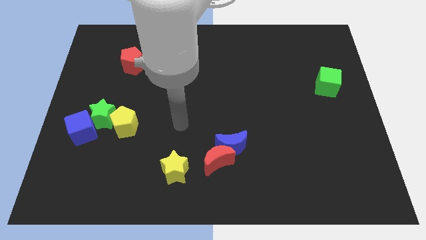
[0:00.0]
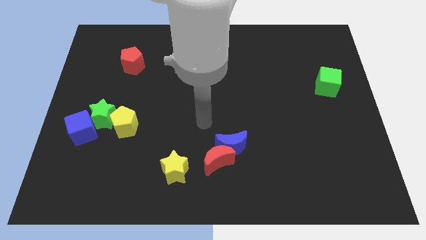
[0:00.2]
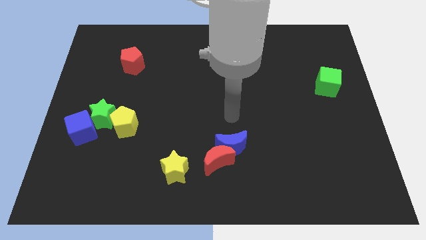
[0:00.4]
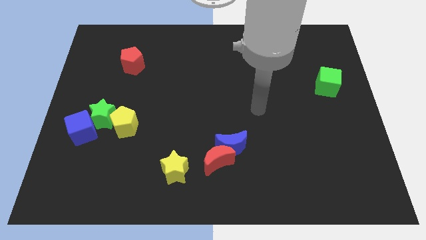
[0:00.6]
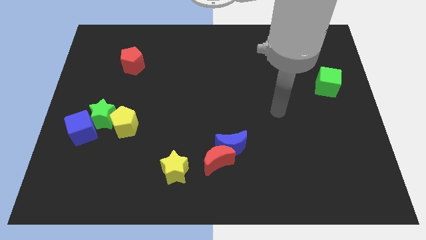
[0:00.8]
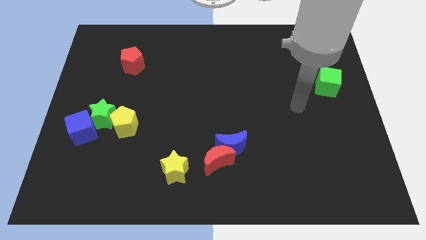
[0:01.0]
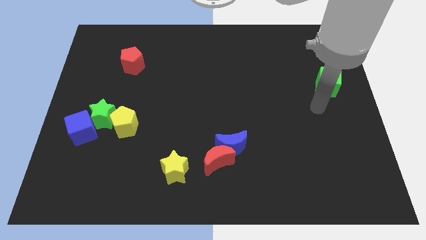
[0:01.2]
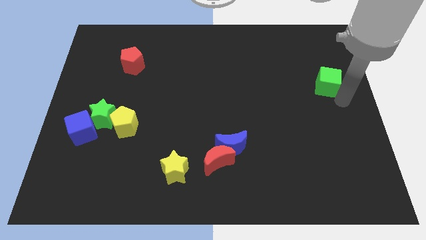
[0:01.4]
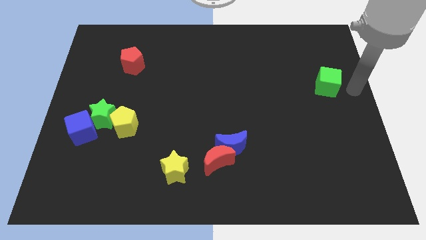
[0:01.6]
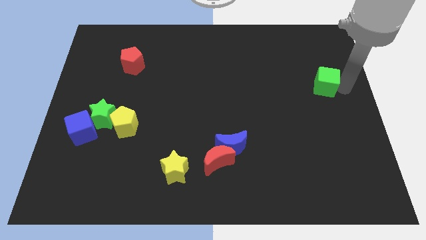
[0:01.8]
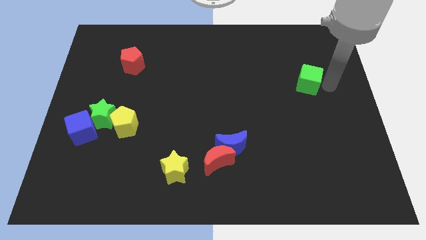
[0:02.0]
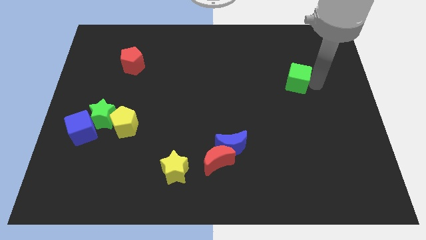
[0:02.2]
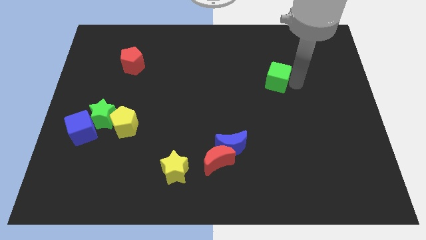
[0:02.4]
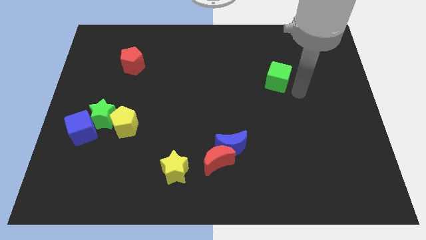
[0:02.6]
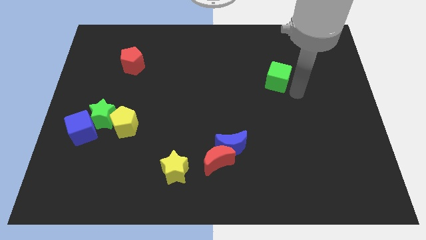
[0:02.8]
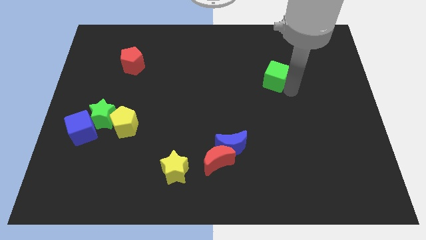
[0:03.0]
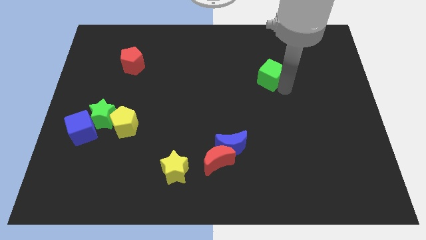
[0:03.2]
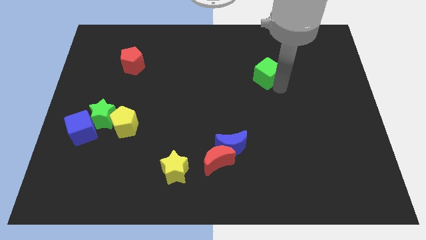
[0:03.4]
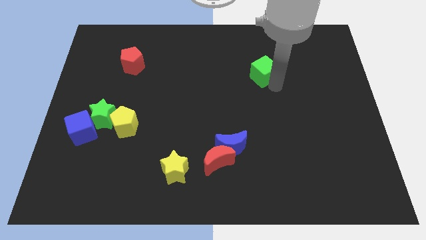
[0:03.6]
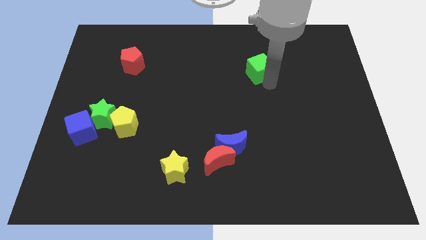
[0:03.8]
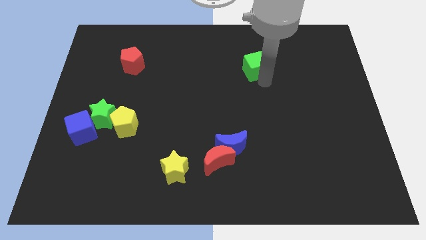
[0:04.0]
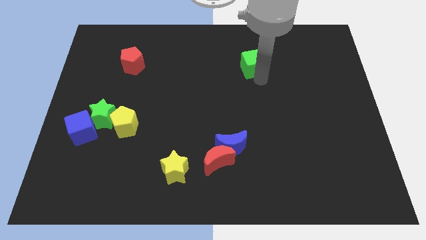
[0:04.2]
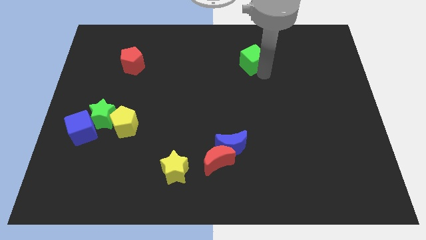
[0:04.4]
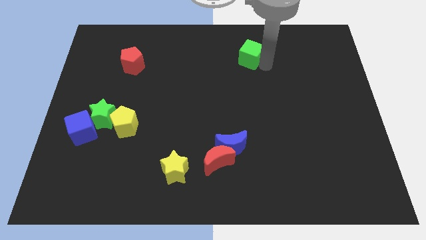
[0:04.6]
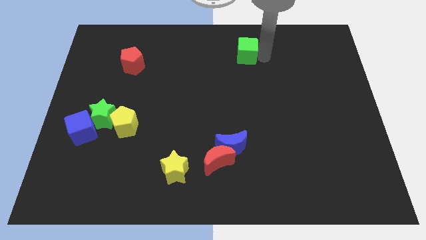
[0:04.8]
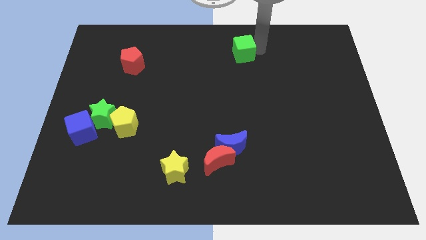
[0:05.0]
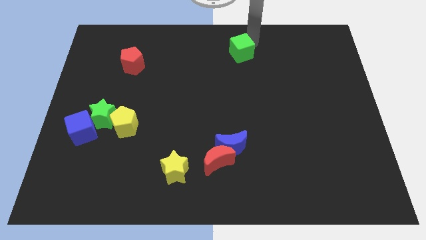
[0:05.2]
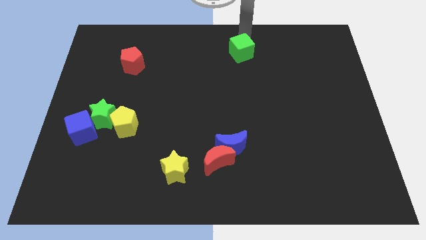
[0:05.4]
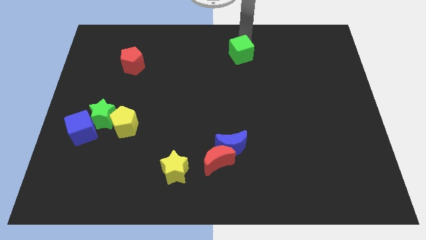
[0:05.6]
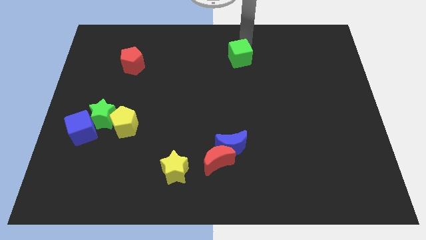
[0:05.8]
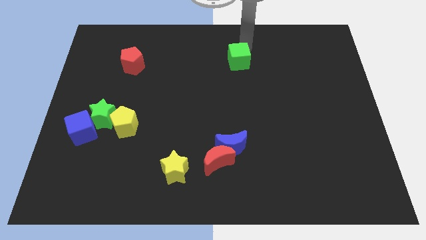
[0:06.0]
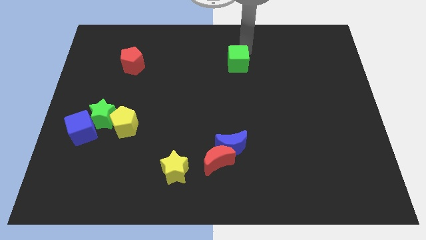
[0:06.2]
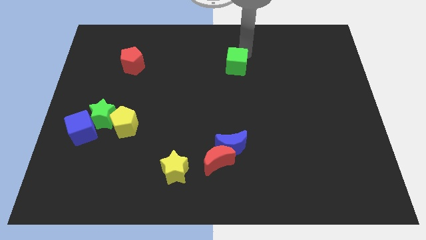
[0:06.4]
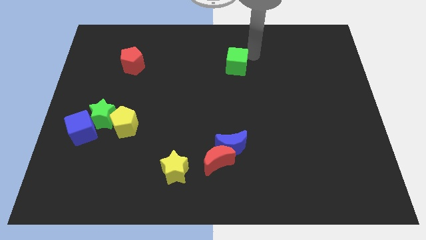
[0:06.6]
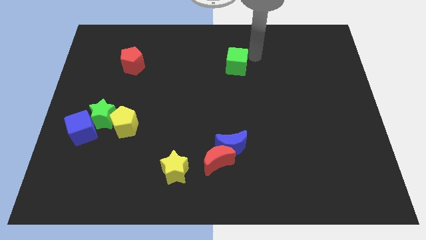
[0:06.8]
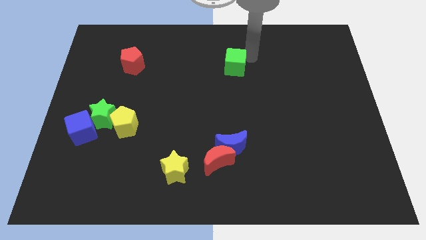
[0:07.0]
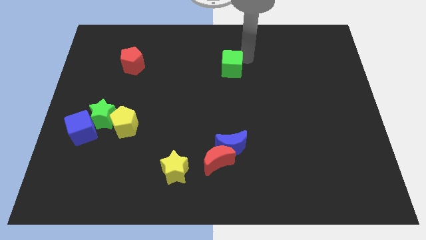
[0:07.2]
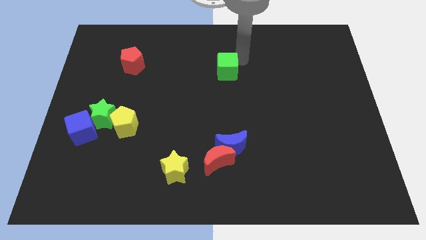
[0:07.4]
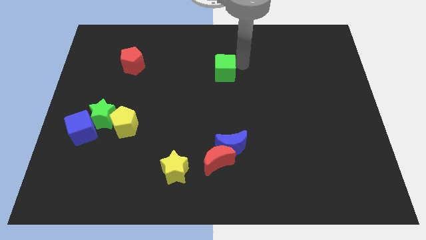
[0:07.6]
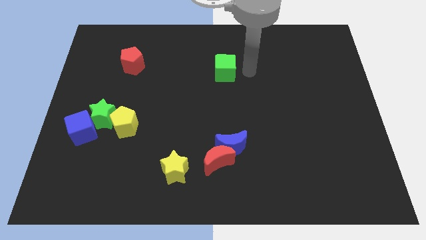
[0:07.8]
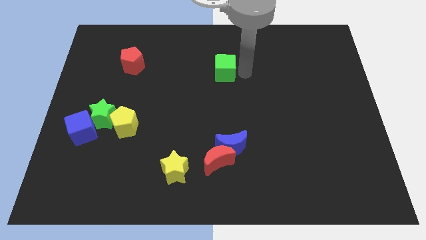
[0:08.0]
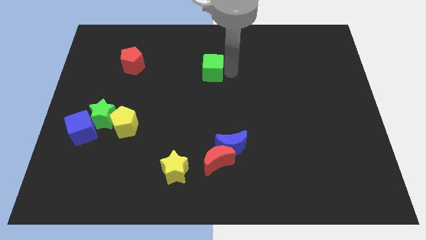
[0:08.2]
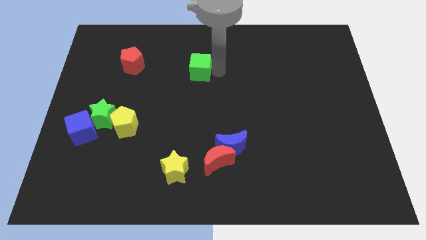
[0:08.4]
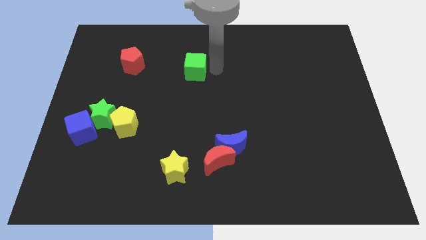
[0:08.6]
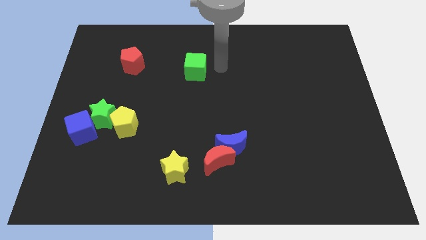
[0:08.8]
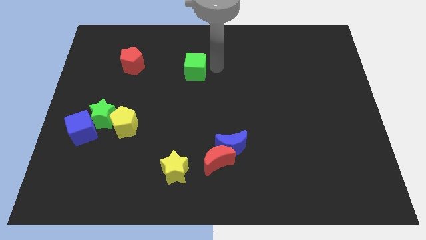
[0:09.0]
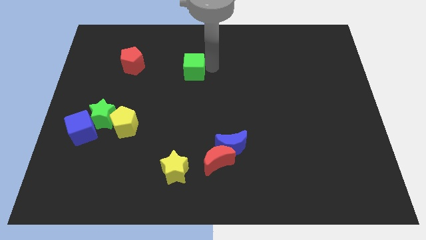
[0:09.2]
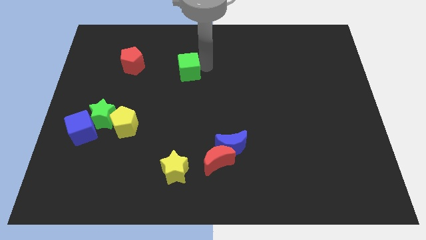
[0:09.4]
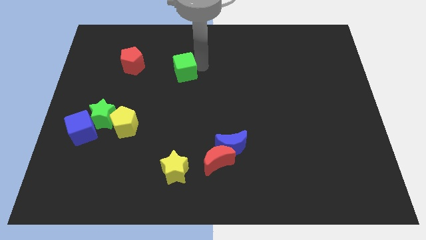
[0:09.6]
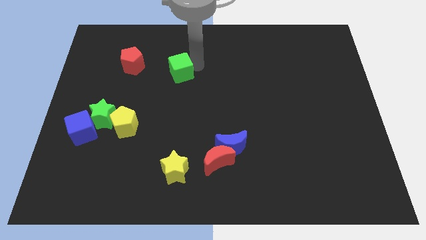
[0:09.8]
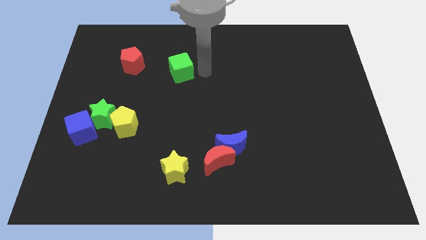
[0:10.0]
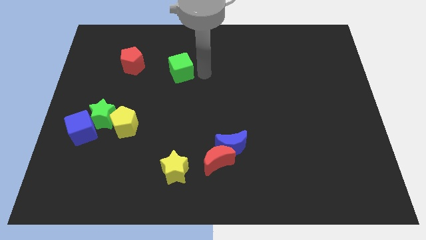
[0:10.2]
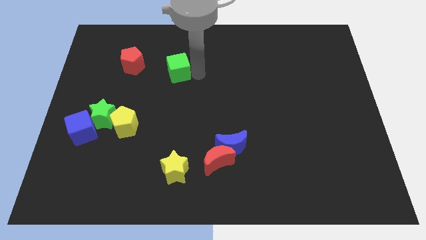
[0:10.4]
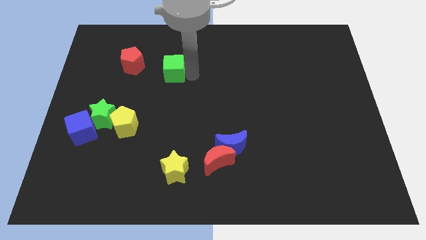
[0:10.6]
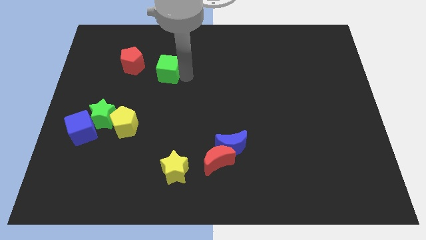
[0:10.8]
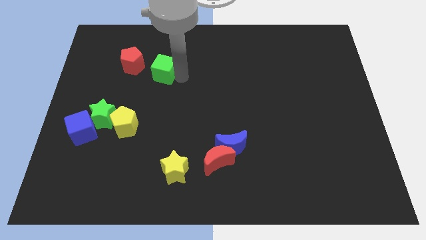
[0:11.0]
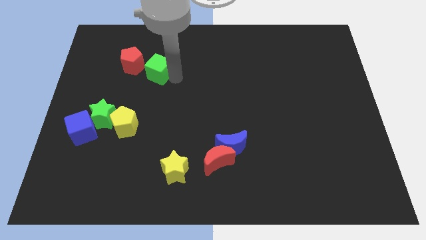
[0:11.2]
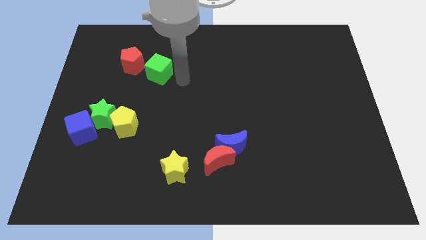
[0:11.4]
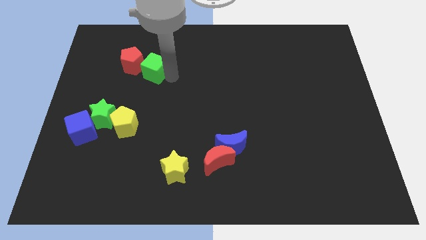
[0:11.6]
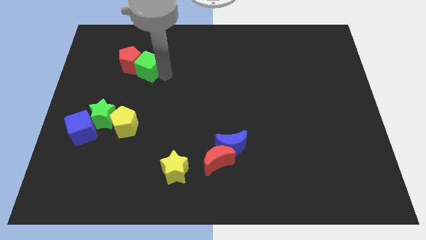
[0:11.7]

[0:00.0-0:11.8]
push the green cube next to the red pentagon
